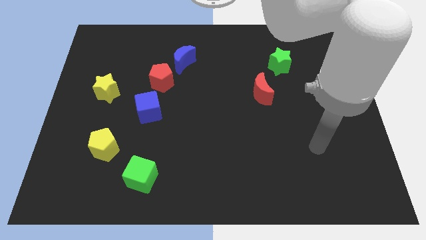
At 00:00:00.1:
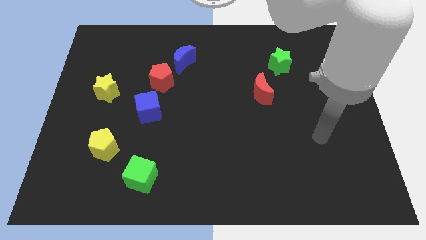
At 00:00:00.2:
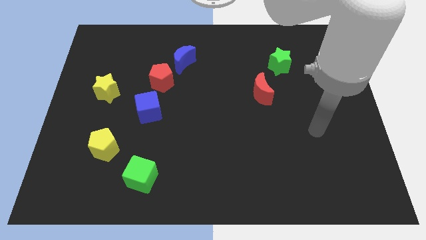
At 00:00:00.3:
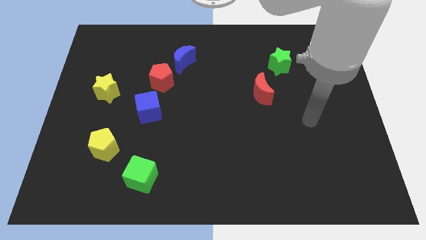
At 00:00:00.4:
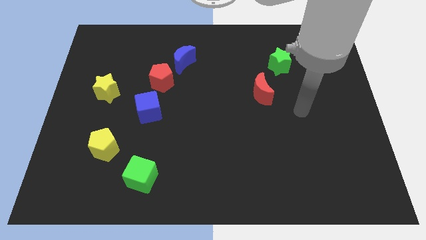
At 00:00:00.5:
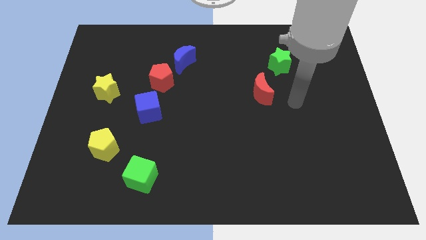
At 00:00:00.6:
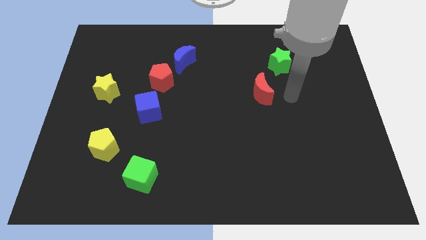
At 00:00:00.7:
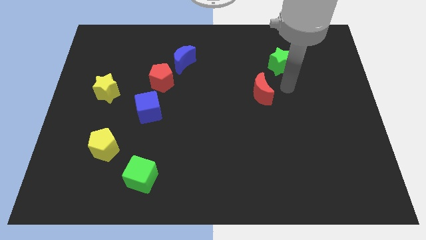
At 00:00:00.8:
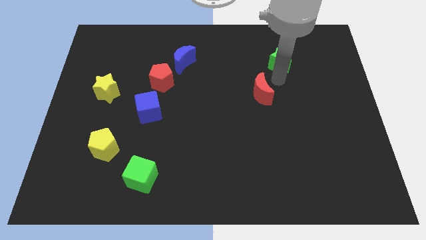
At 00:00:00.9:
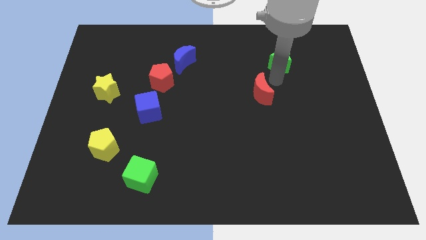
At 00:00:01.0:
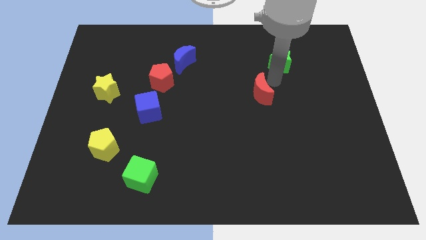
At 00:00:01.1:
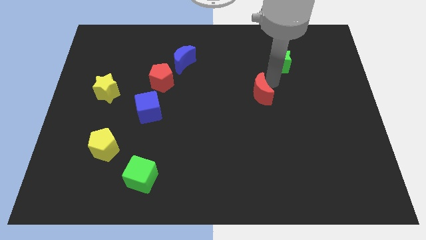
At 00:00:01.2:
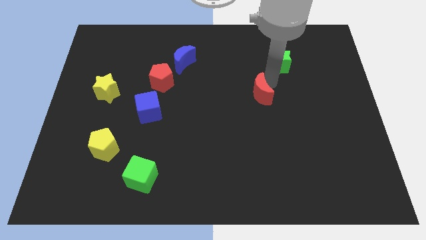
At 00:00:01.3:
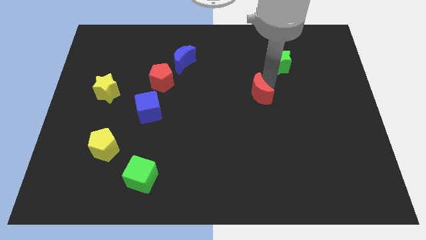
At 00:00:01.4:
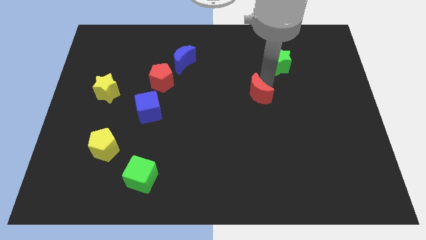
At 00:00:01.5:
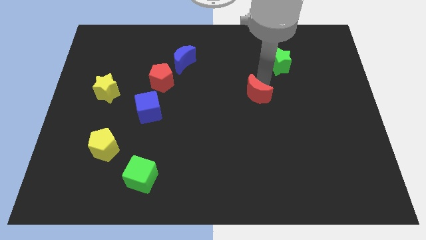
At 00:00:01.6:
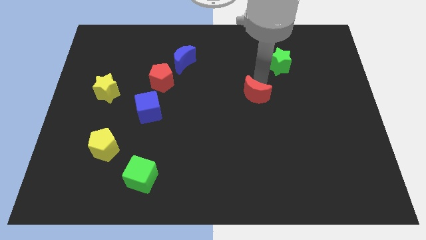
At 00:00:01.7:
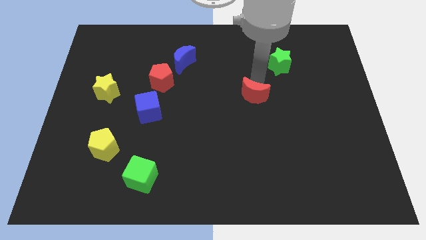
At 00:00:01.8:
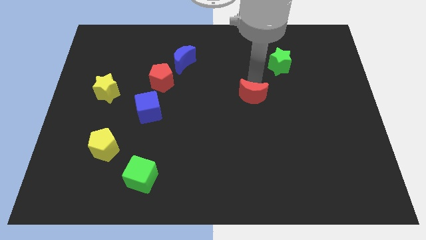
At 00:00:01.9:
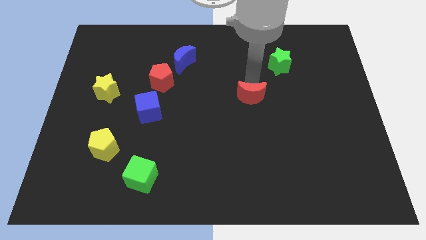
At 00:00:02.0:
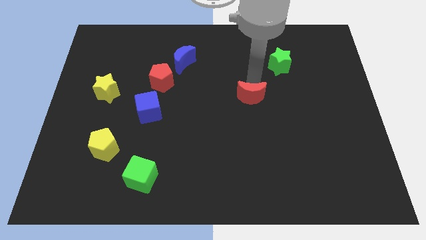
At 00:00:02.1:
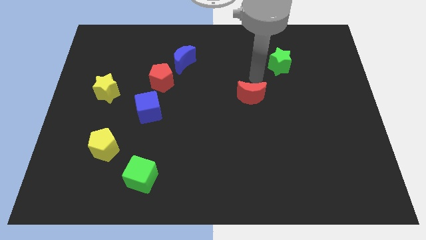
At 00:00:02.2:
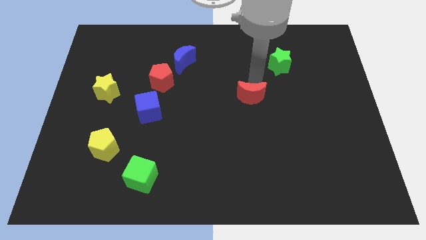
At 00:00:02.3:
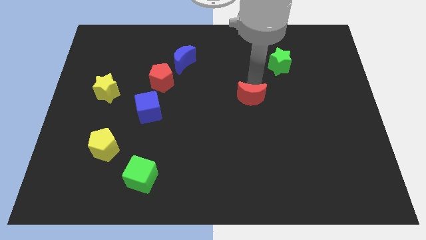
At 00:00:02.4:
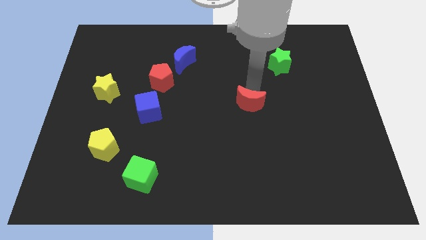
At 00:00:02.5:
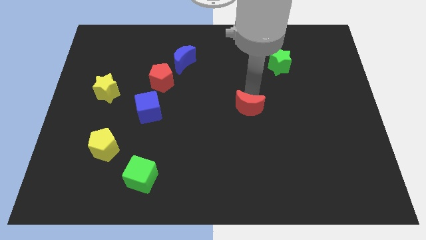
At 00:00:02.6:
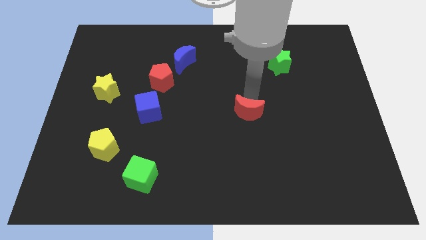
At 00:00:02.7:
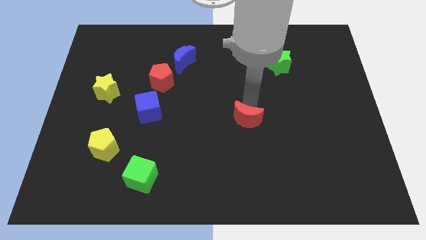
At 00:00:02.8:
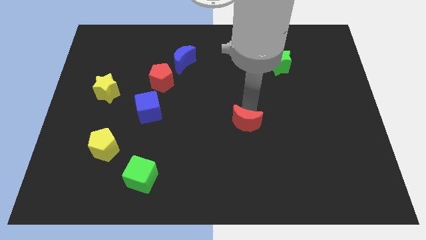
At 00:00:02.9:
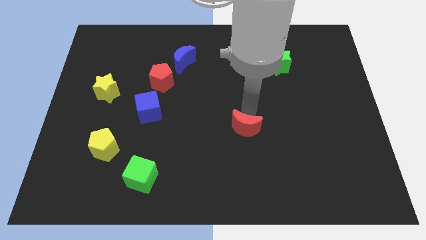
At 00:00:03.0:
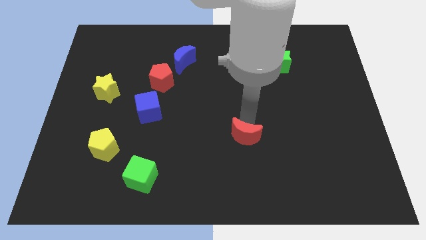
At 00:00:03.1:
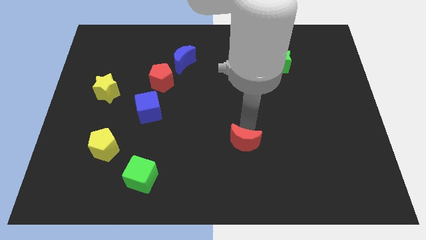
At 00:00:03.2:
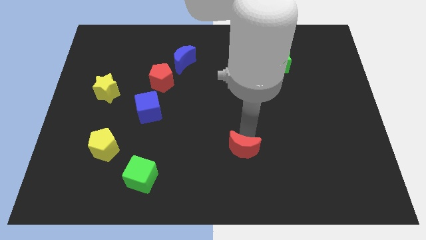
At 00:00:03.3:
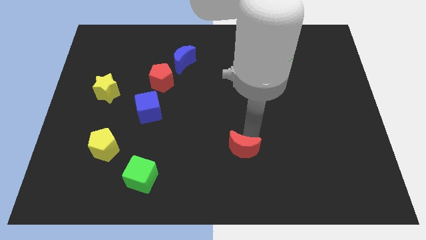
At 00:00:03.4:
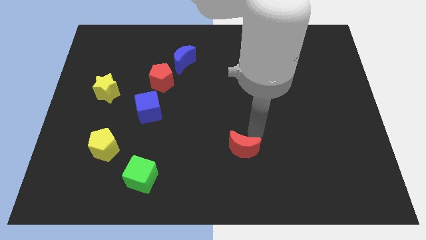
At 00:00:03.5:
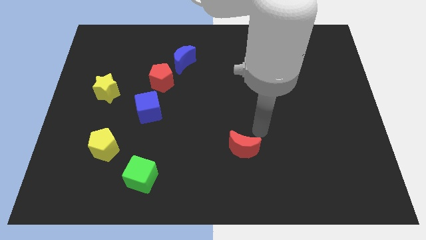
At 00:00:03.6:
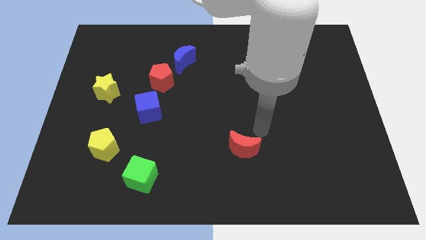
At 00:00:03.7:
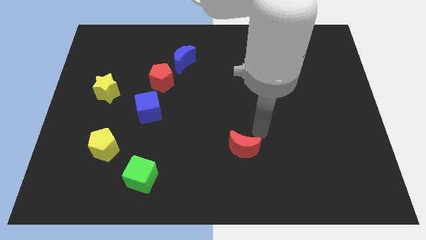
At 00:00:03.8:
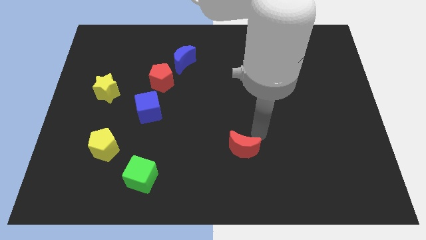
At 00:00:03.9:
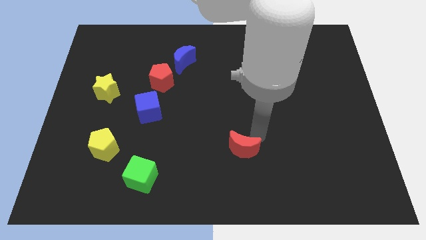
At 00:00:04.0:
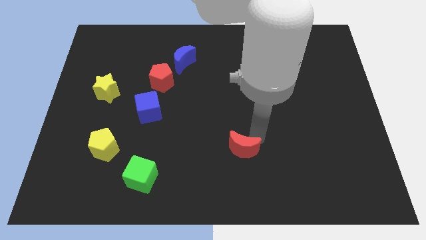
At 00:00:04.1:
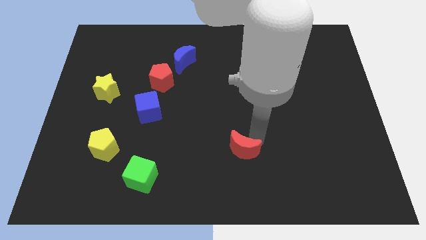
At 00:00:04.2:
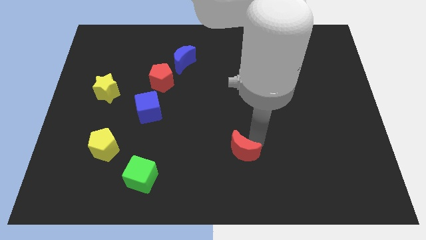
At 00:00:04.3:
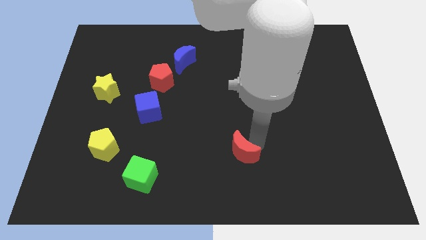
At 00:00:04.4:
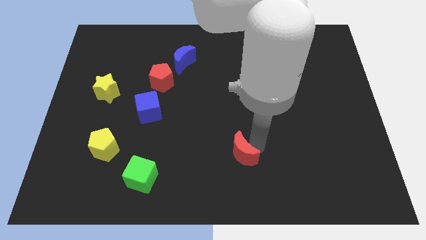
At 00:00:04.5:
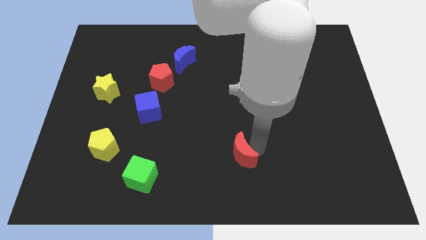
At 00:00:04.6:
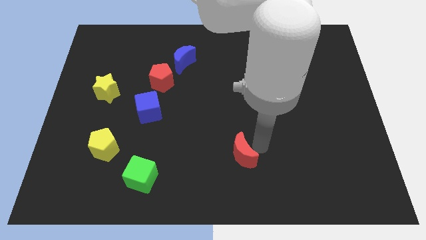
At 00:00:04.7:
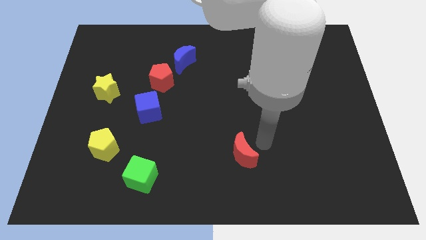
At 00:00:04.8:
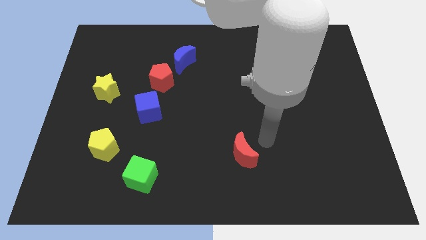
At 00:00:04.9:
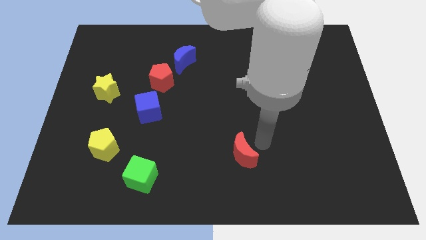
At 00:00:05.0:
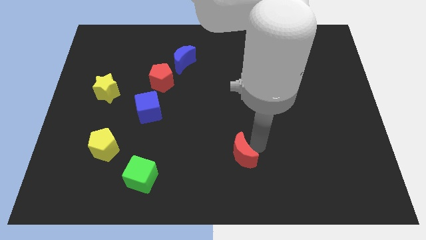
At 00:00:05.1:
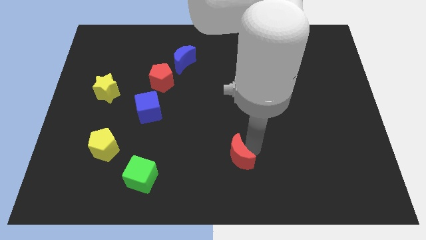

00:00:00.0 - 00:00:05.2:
put the red moon to the bottom

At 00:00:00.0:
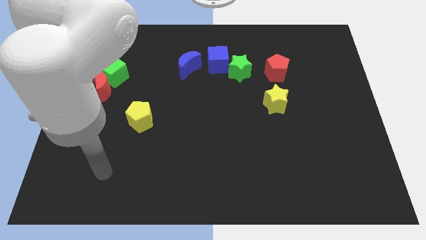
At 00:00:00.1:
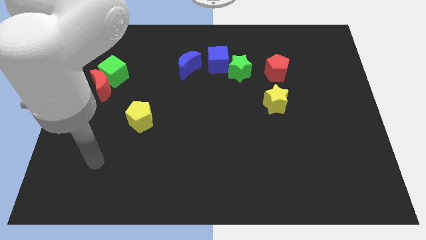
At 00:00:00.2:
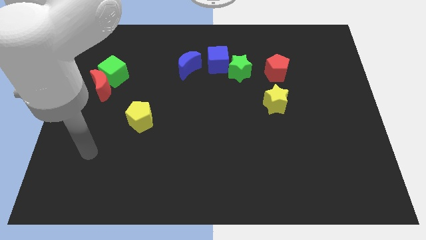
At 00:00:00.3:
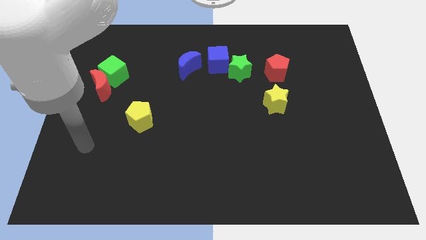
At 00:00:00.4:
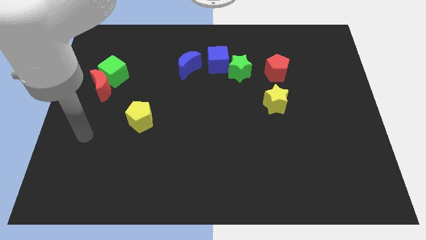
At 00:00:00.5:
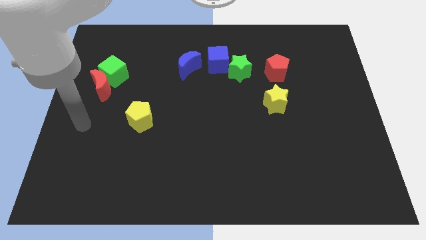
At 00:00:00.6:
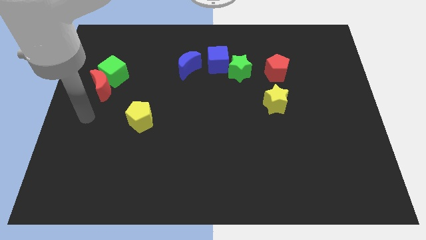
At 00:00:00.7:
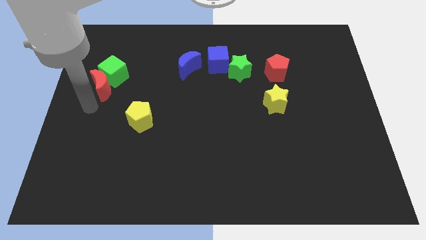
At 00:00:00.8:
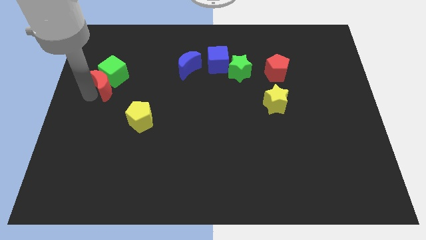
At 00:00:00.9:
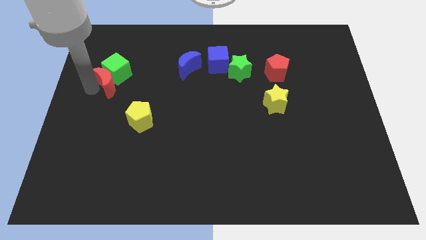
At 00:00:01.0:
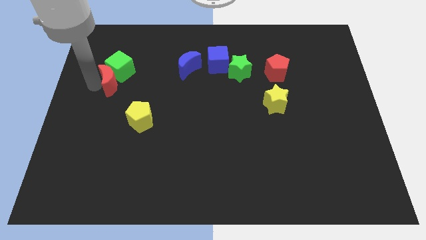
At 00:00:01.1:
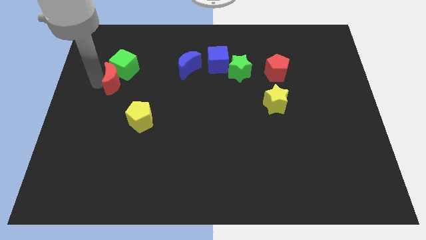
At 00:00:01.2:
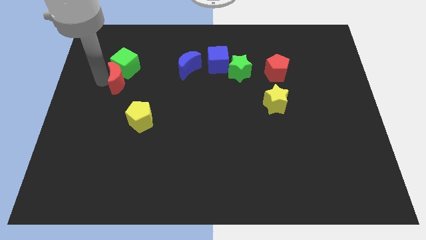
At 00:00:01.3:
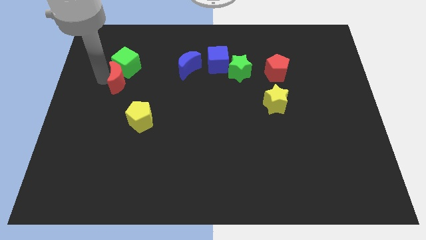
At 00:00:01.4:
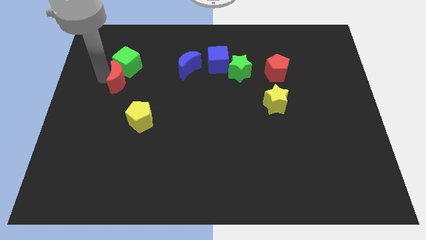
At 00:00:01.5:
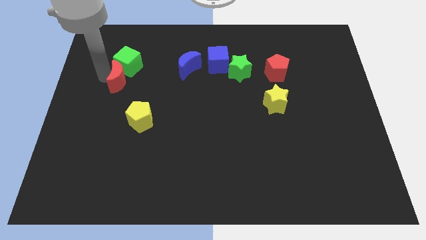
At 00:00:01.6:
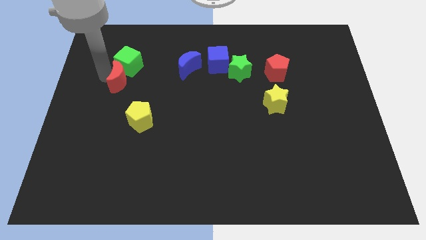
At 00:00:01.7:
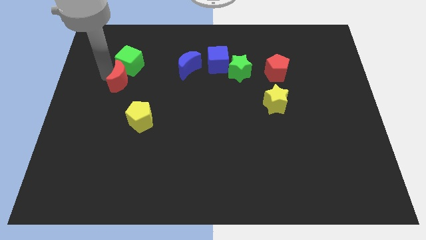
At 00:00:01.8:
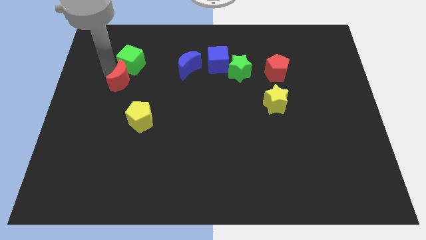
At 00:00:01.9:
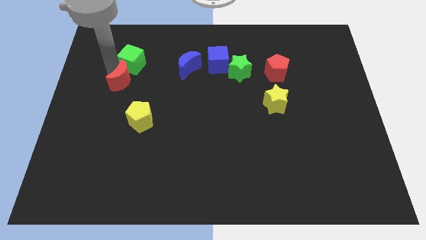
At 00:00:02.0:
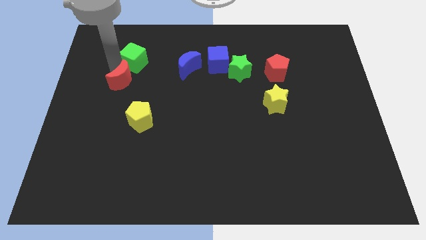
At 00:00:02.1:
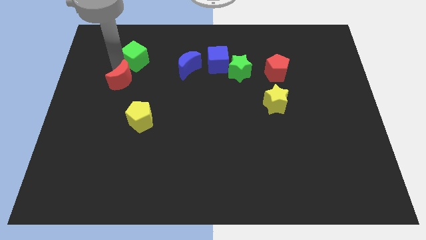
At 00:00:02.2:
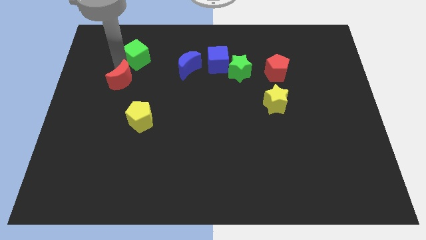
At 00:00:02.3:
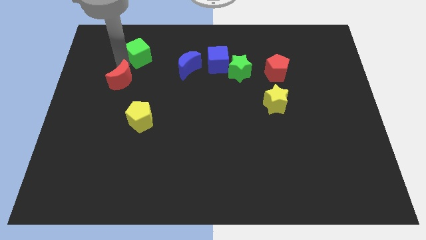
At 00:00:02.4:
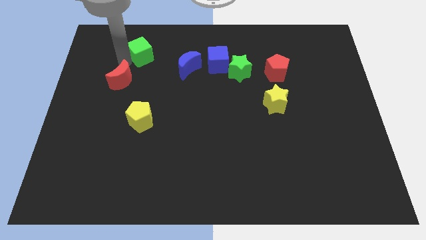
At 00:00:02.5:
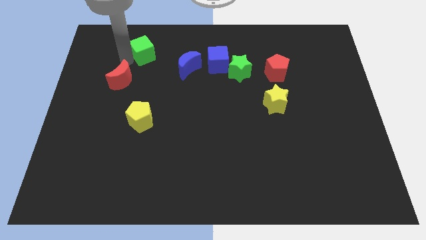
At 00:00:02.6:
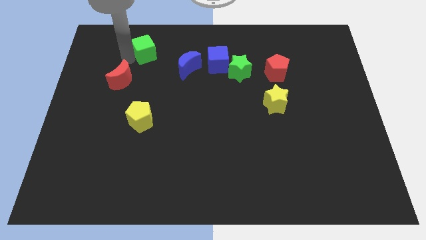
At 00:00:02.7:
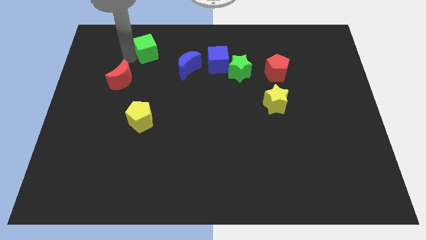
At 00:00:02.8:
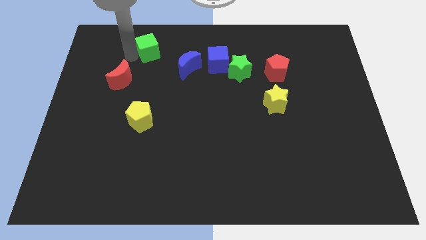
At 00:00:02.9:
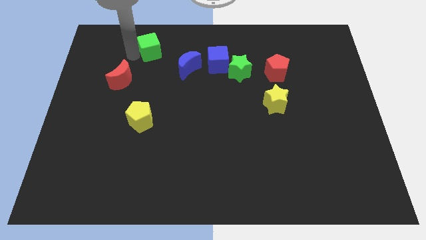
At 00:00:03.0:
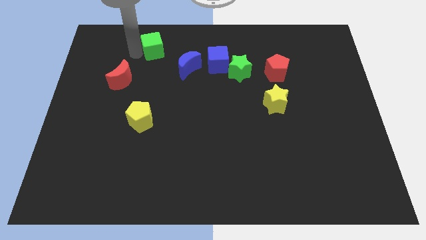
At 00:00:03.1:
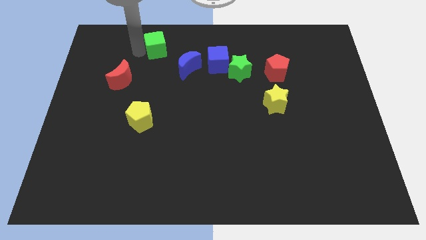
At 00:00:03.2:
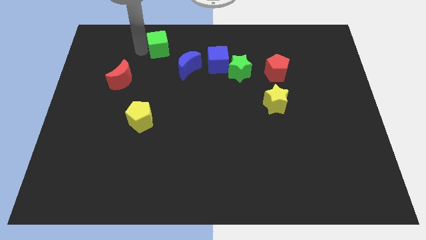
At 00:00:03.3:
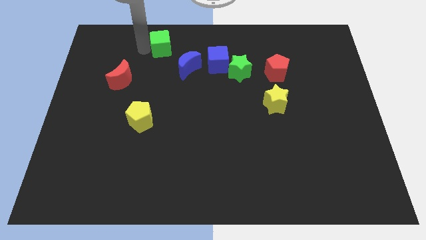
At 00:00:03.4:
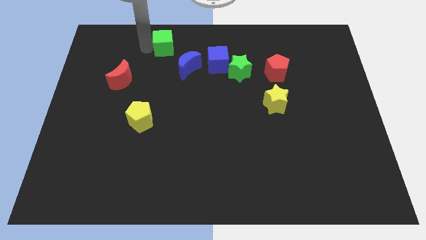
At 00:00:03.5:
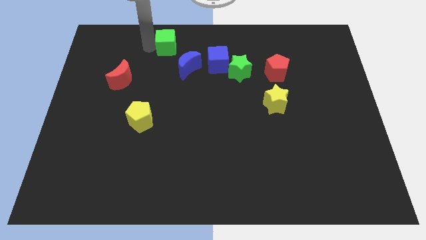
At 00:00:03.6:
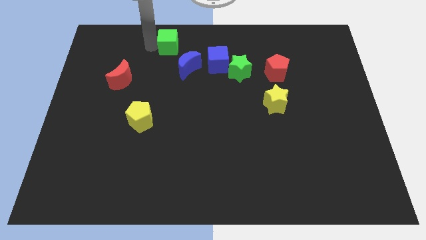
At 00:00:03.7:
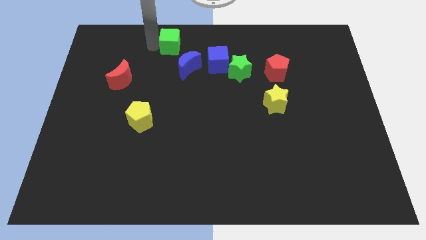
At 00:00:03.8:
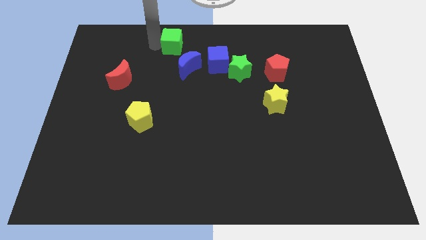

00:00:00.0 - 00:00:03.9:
move the green cube to the top
